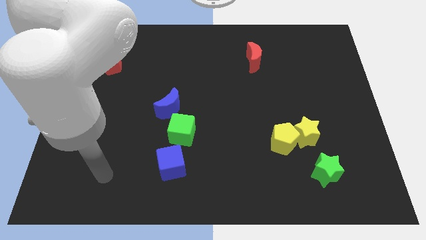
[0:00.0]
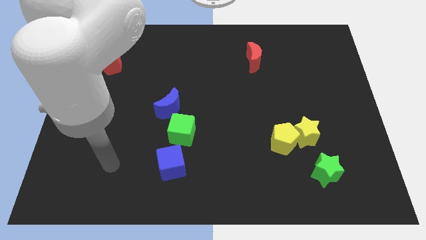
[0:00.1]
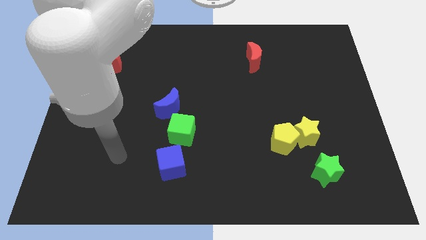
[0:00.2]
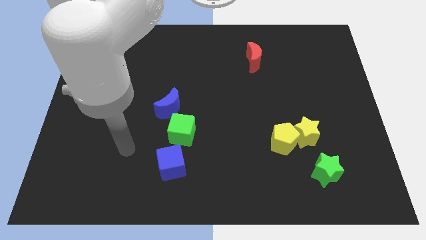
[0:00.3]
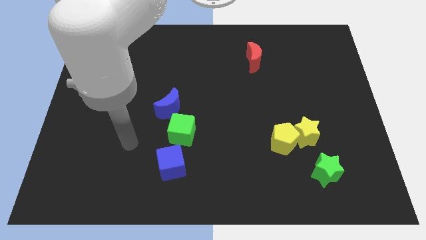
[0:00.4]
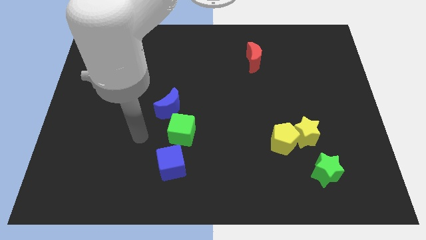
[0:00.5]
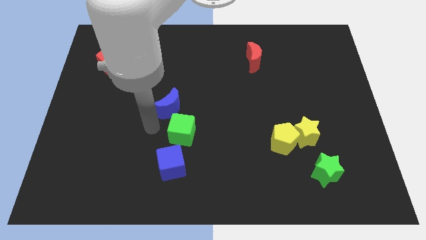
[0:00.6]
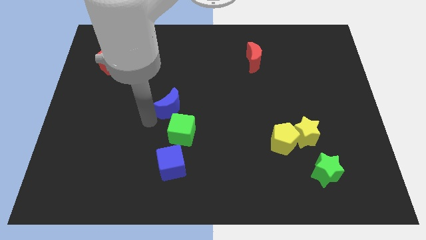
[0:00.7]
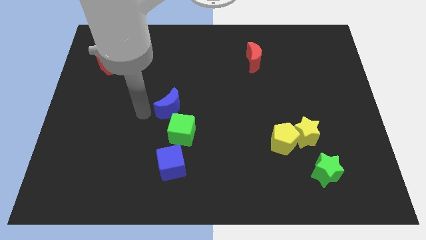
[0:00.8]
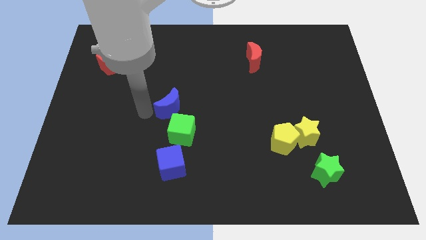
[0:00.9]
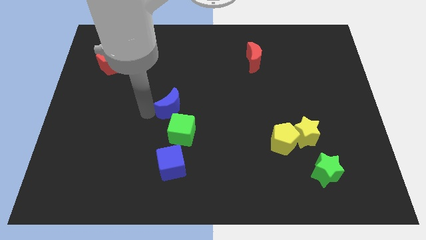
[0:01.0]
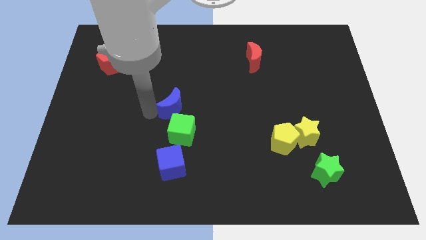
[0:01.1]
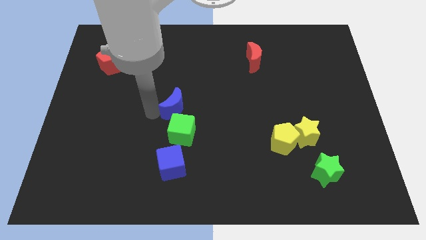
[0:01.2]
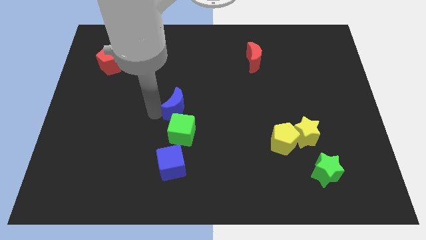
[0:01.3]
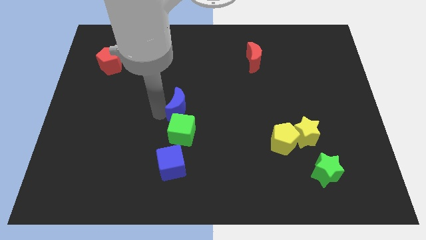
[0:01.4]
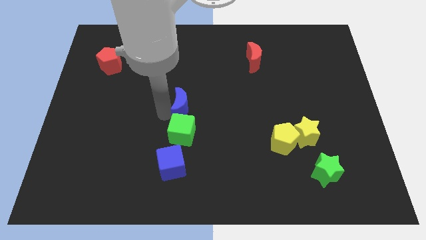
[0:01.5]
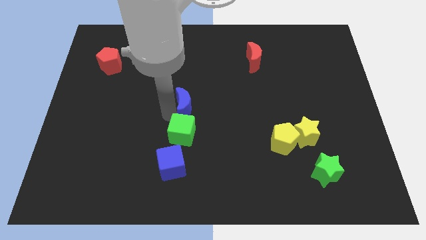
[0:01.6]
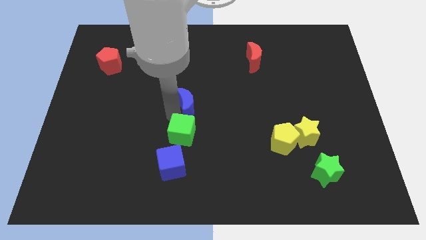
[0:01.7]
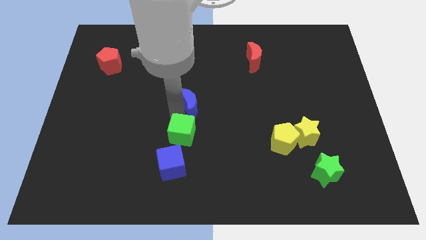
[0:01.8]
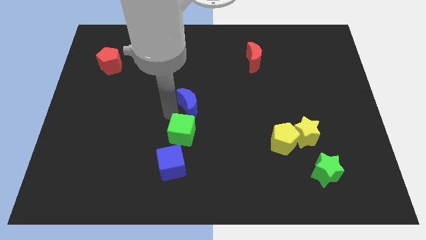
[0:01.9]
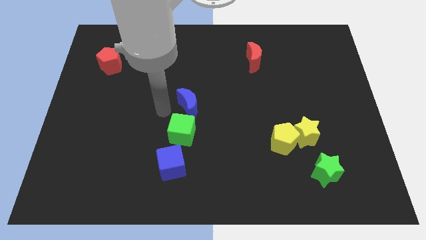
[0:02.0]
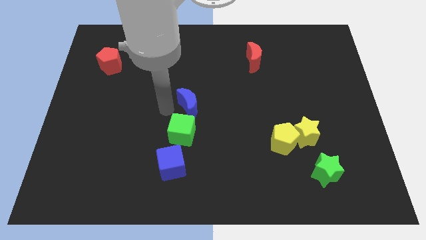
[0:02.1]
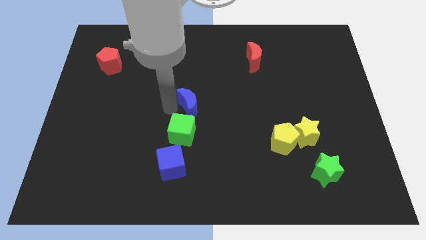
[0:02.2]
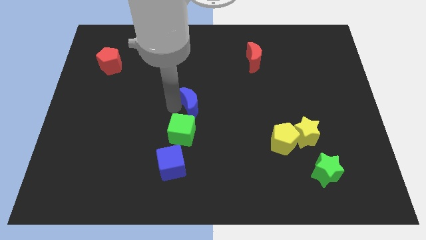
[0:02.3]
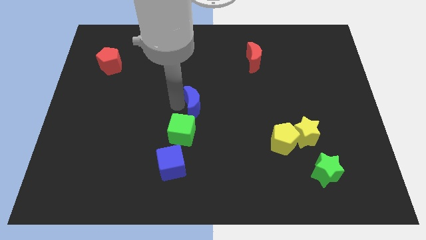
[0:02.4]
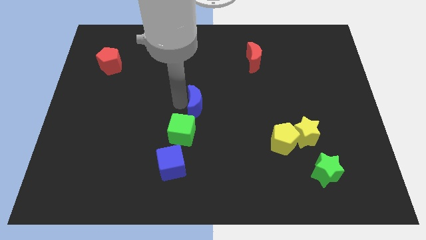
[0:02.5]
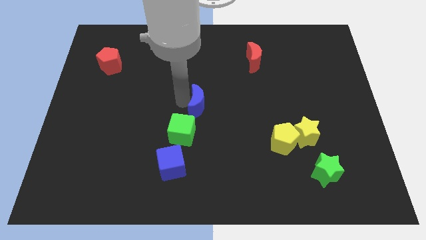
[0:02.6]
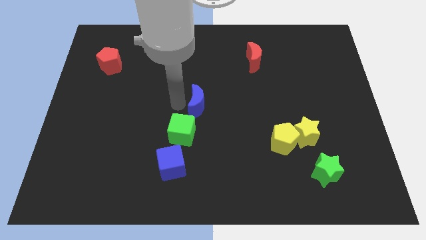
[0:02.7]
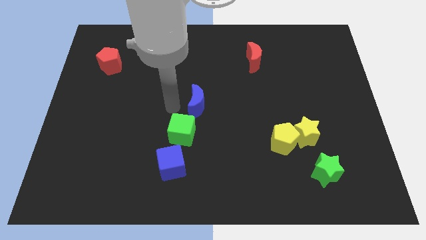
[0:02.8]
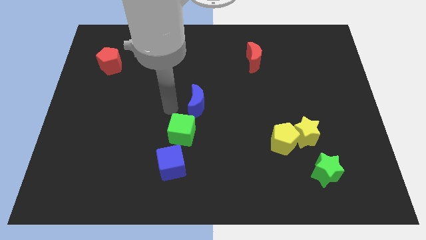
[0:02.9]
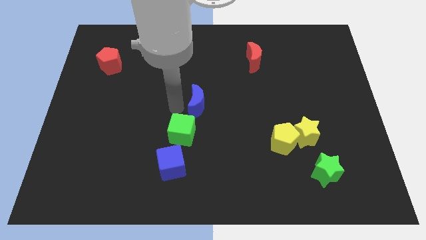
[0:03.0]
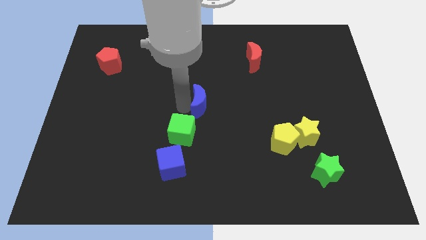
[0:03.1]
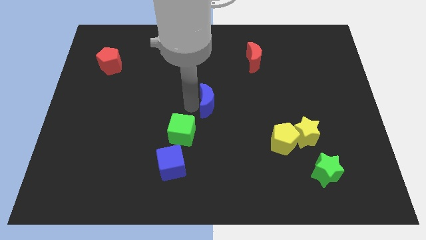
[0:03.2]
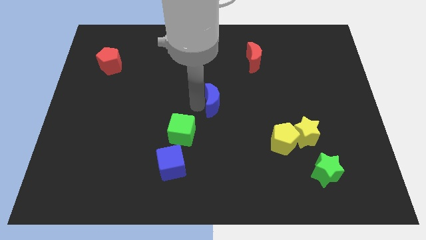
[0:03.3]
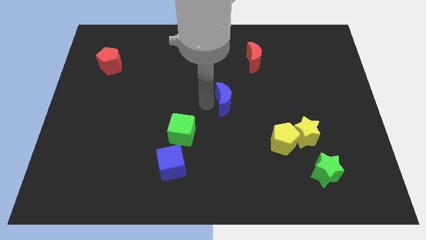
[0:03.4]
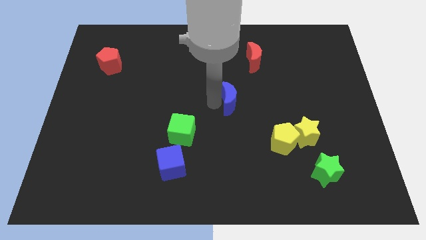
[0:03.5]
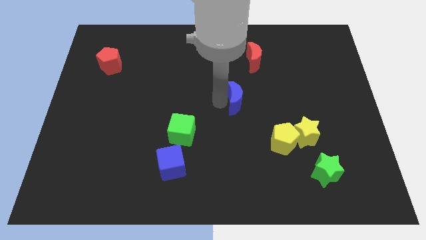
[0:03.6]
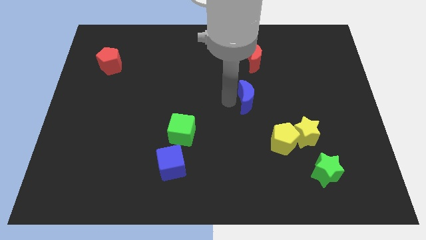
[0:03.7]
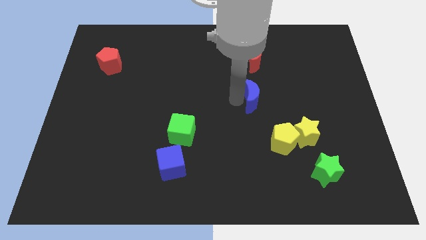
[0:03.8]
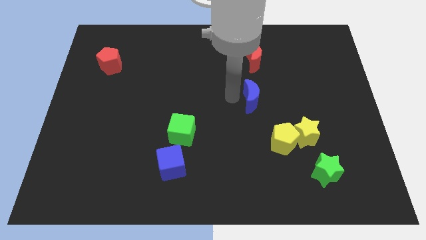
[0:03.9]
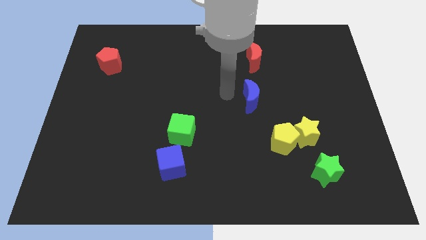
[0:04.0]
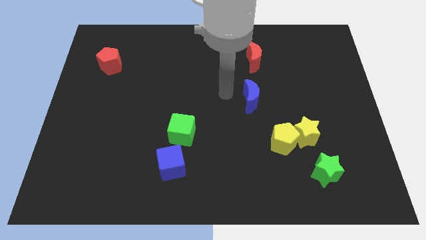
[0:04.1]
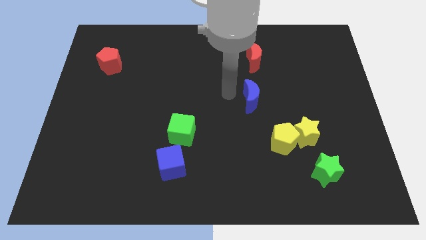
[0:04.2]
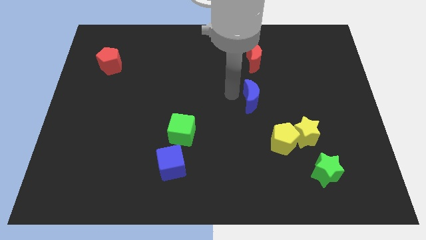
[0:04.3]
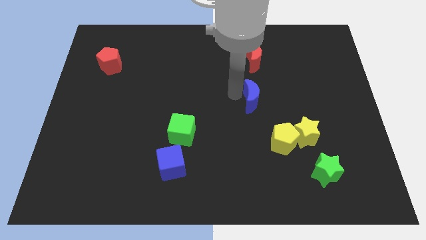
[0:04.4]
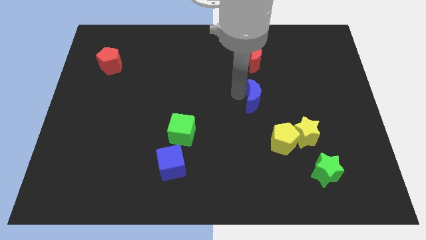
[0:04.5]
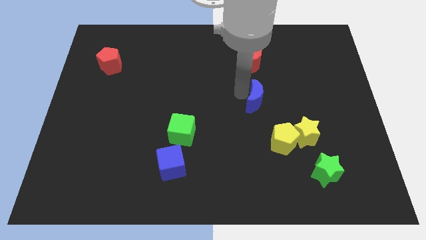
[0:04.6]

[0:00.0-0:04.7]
move the blue moon right

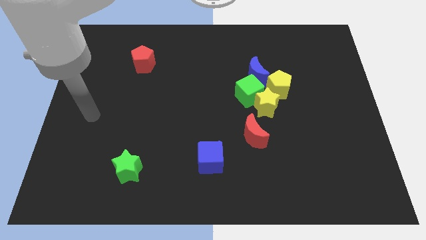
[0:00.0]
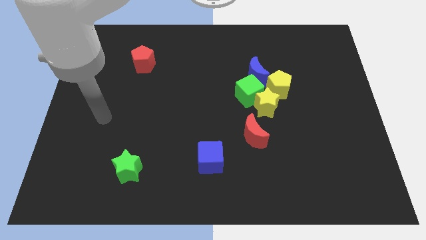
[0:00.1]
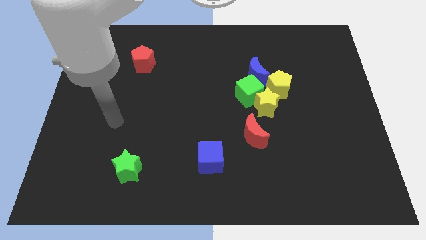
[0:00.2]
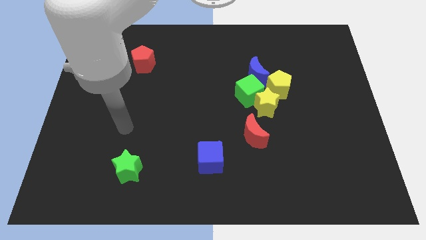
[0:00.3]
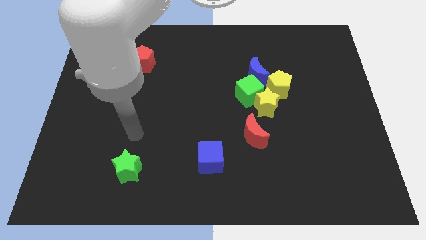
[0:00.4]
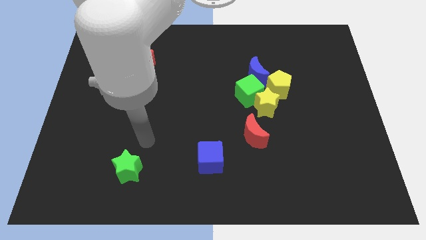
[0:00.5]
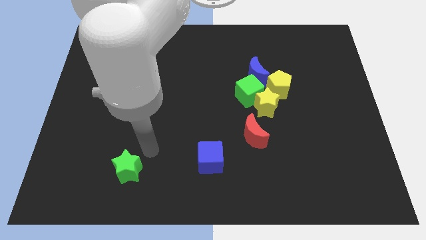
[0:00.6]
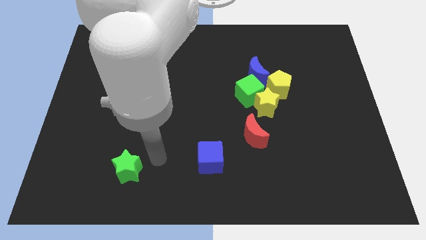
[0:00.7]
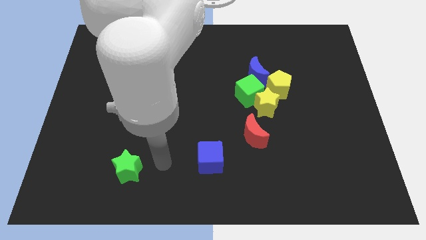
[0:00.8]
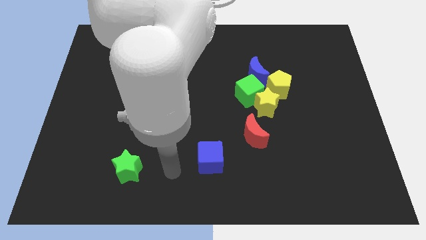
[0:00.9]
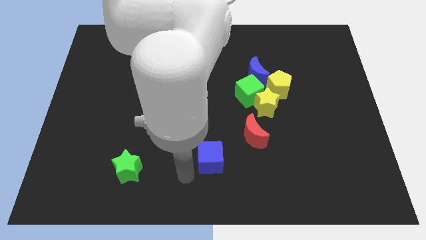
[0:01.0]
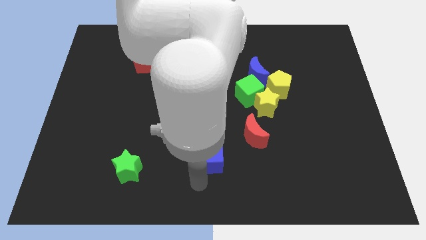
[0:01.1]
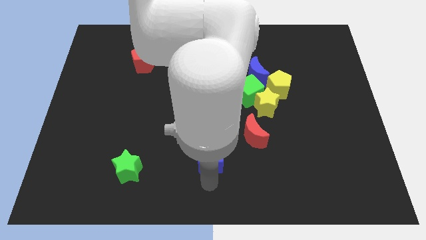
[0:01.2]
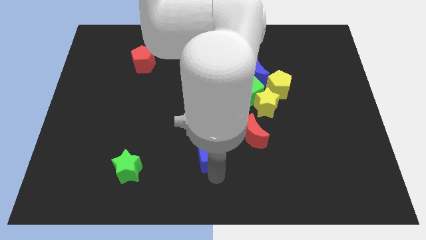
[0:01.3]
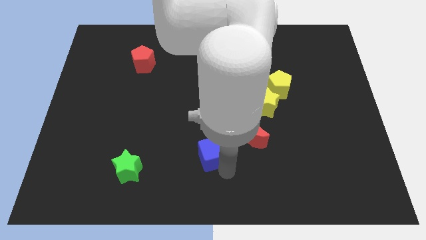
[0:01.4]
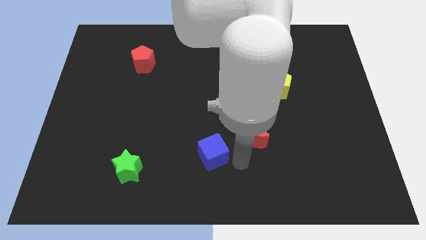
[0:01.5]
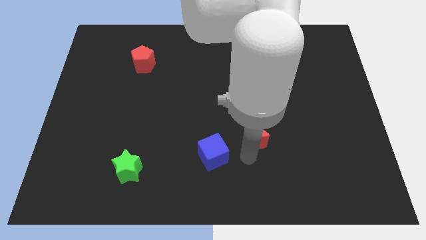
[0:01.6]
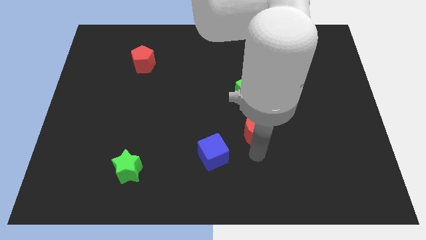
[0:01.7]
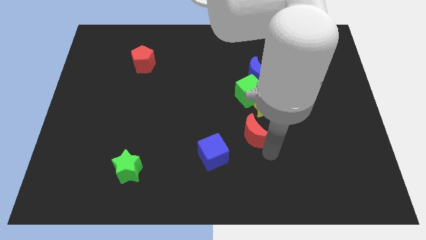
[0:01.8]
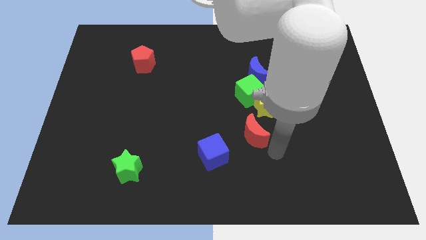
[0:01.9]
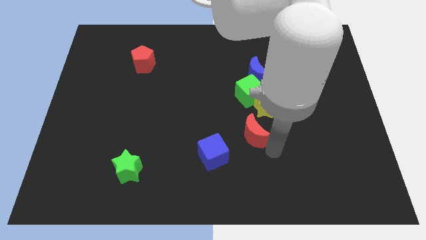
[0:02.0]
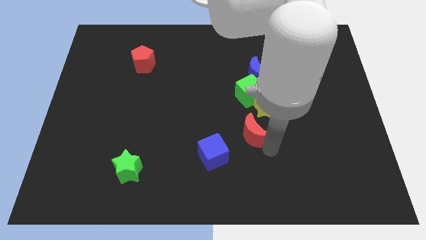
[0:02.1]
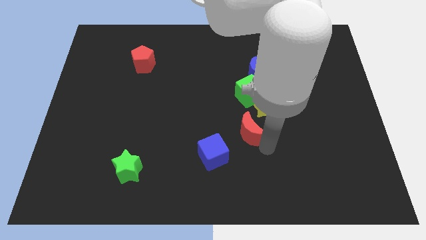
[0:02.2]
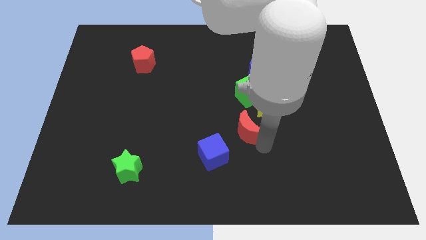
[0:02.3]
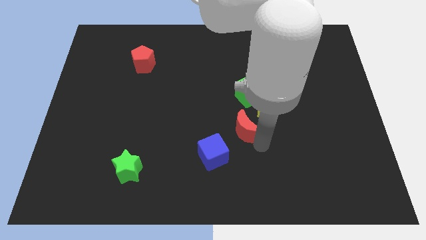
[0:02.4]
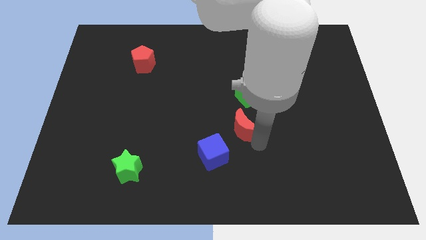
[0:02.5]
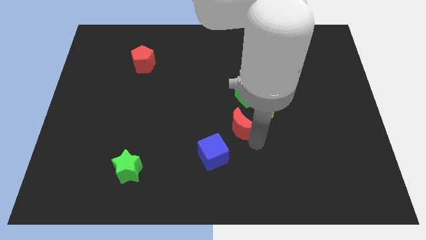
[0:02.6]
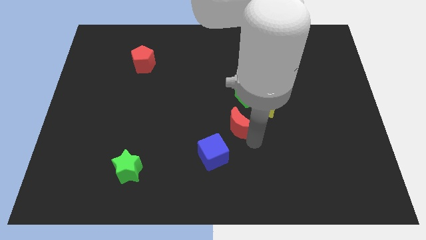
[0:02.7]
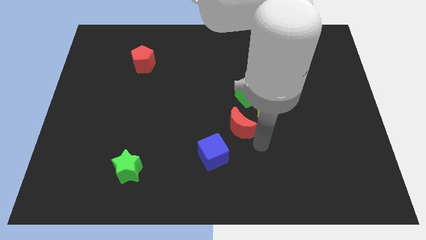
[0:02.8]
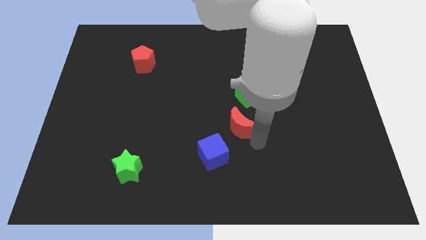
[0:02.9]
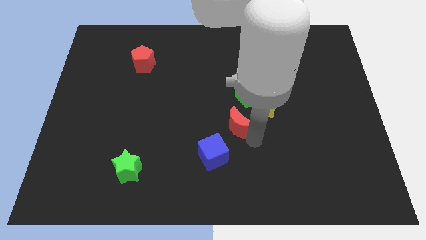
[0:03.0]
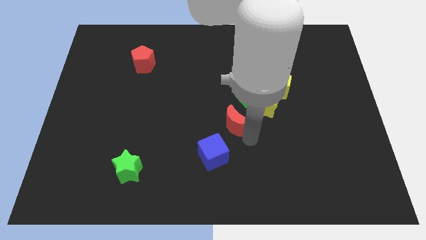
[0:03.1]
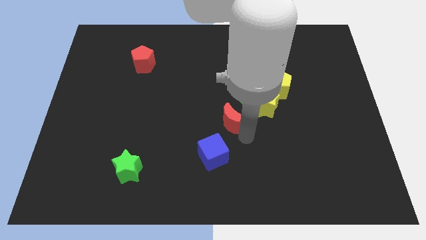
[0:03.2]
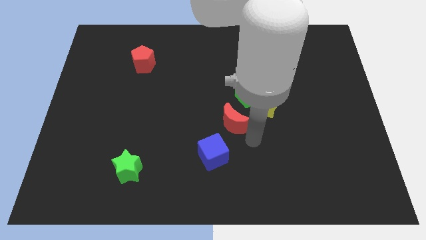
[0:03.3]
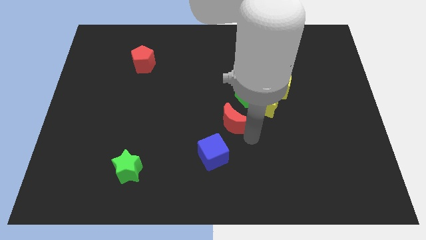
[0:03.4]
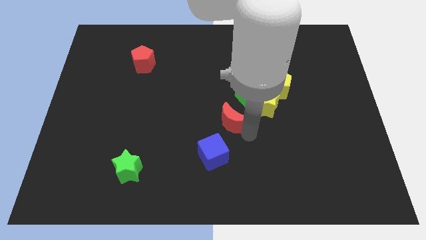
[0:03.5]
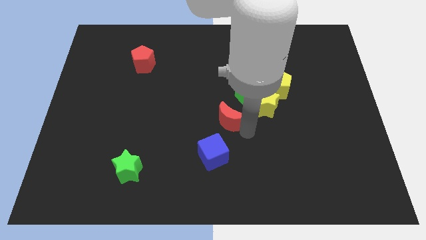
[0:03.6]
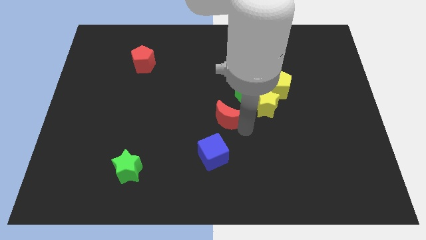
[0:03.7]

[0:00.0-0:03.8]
slightly slide the red moon diagonally up and left
